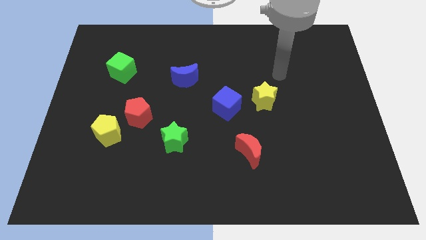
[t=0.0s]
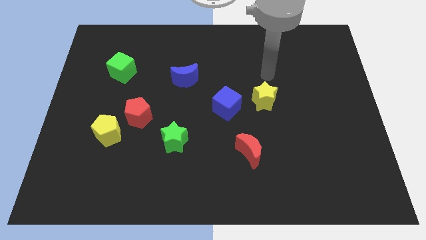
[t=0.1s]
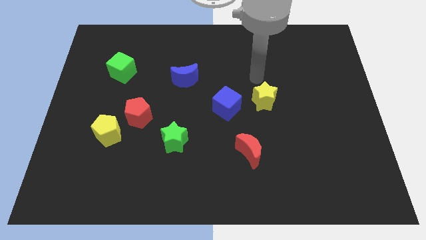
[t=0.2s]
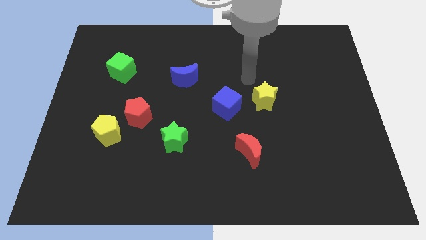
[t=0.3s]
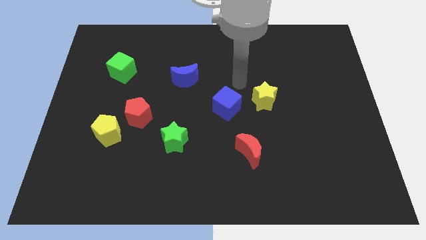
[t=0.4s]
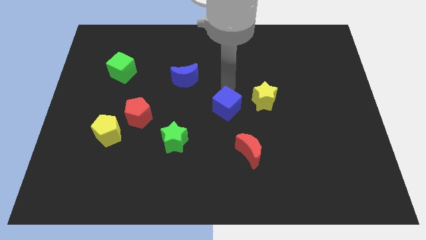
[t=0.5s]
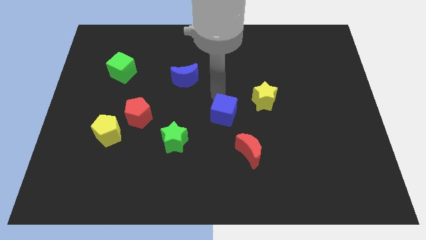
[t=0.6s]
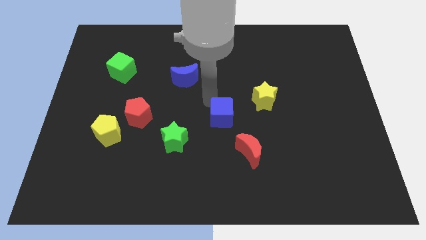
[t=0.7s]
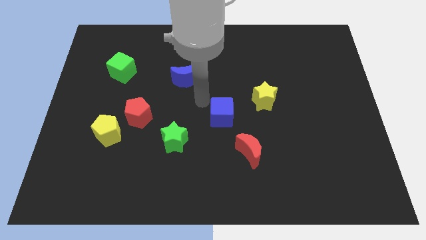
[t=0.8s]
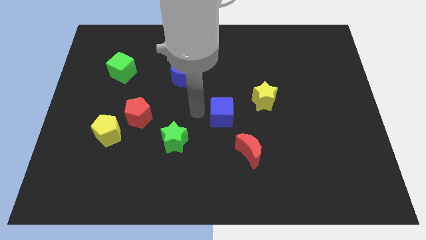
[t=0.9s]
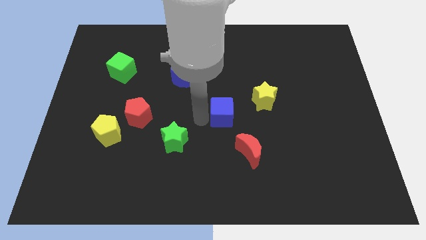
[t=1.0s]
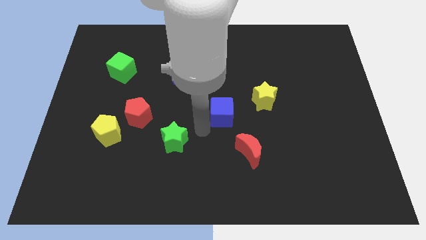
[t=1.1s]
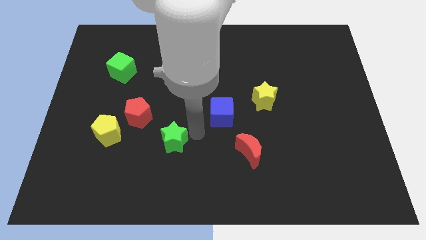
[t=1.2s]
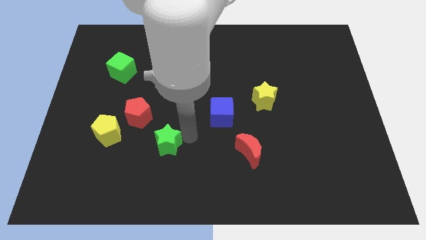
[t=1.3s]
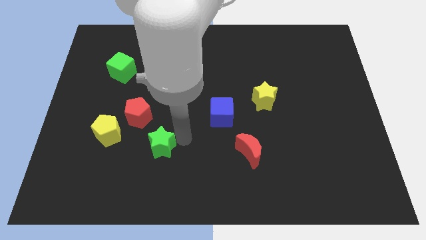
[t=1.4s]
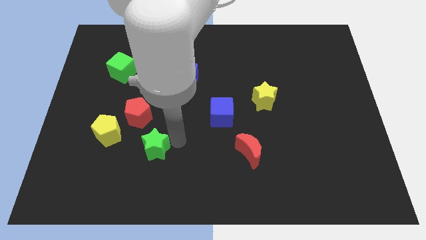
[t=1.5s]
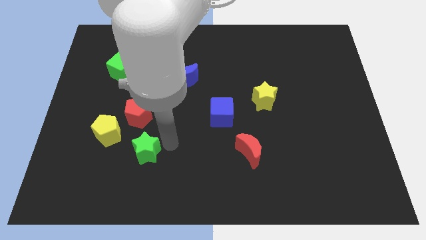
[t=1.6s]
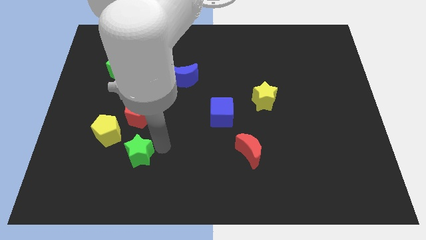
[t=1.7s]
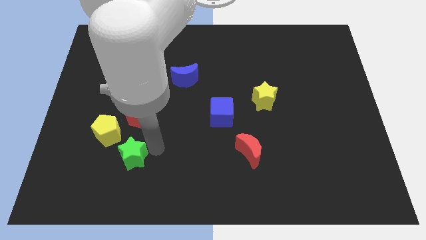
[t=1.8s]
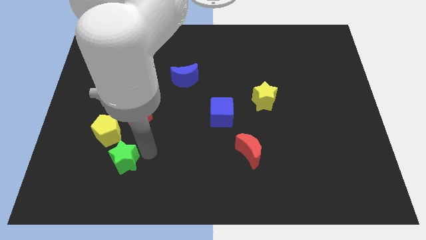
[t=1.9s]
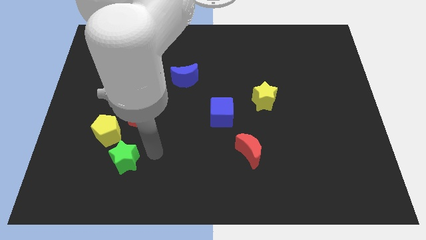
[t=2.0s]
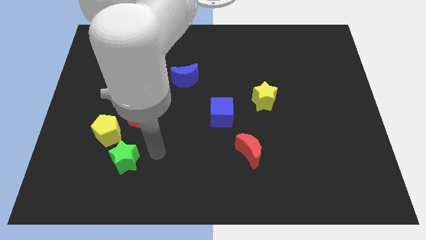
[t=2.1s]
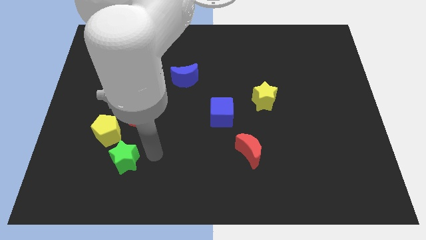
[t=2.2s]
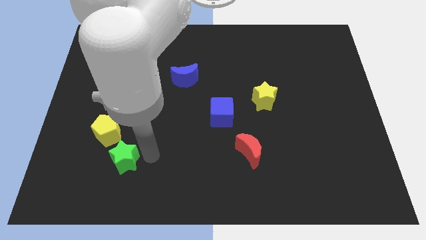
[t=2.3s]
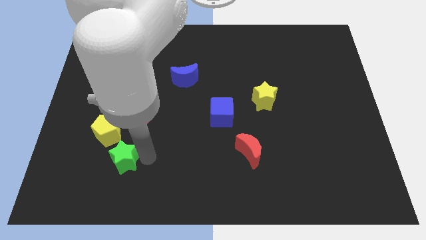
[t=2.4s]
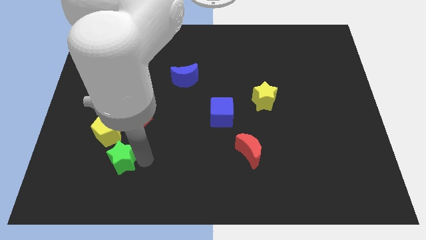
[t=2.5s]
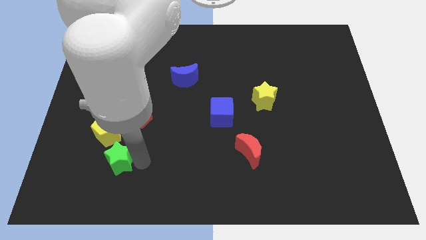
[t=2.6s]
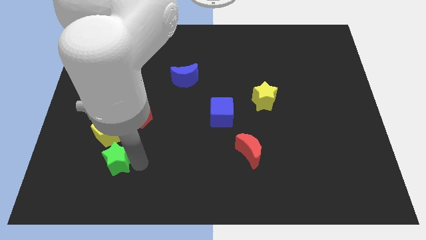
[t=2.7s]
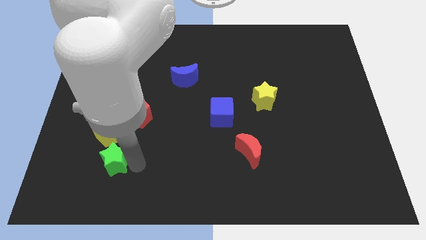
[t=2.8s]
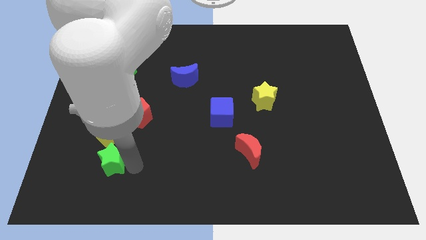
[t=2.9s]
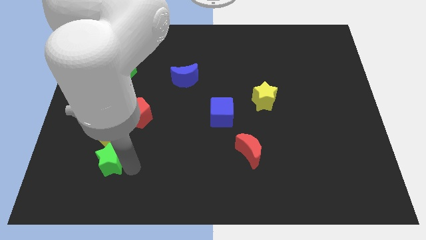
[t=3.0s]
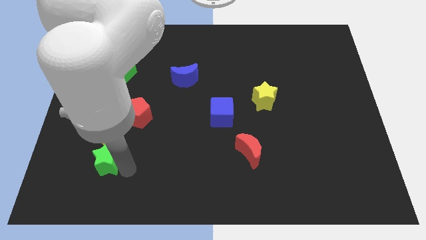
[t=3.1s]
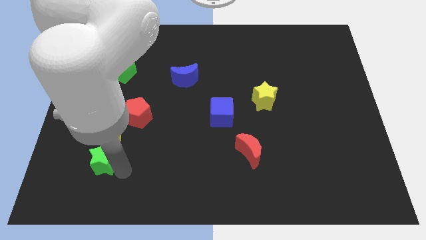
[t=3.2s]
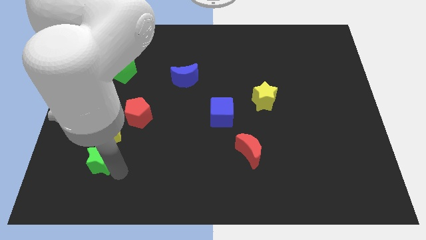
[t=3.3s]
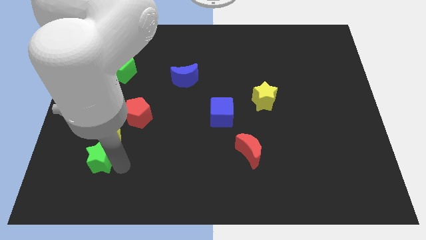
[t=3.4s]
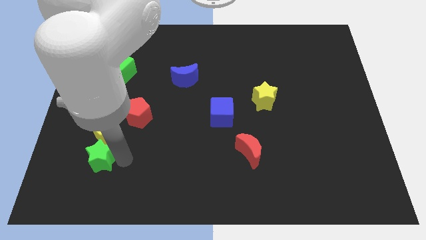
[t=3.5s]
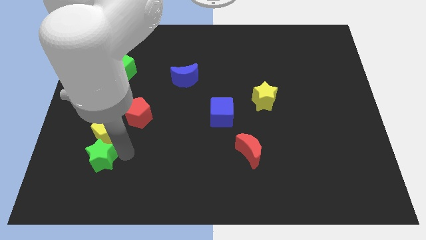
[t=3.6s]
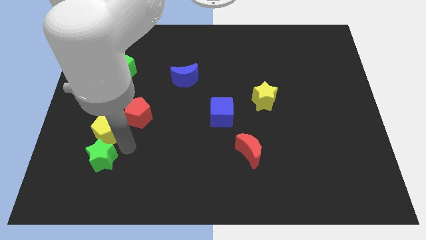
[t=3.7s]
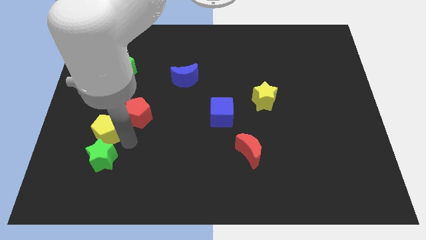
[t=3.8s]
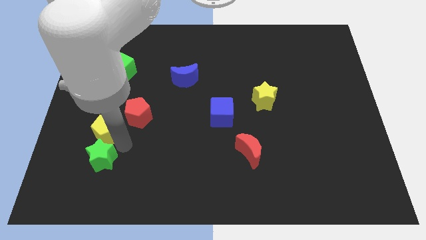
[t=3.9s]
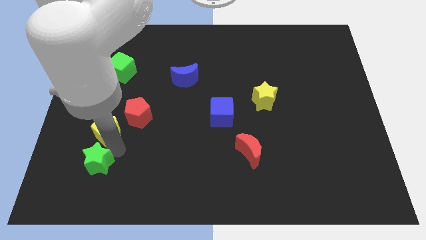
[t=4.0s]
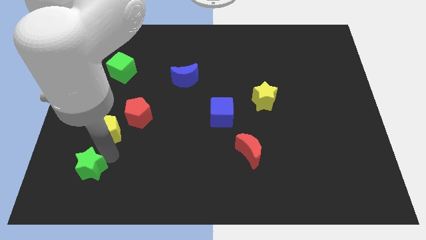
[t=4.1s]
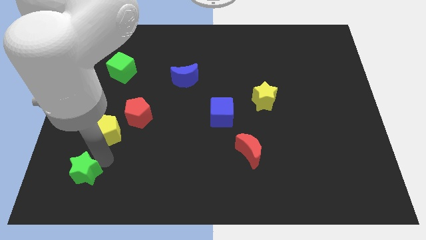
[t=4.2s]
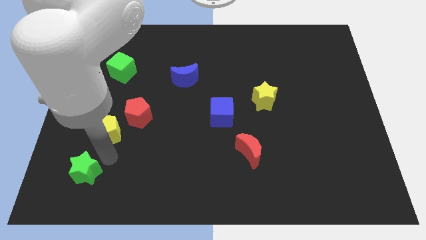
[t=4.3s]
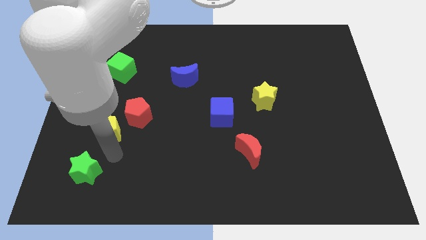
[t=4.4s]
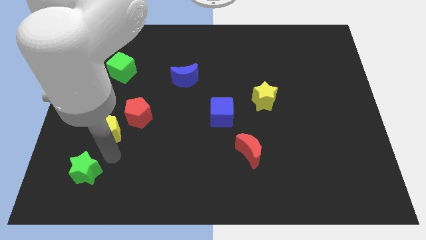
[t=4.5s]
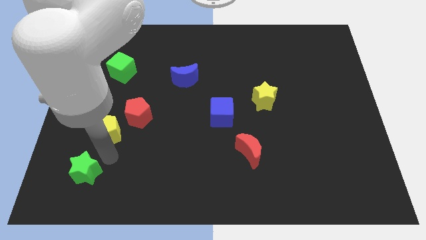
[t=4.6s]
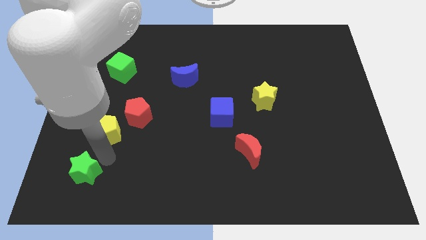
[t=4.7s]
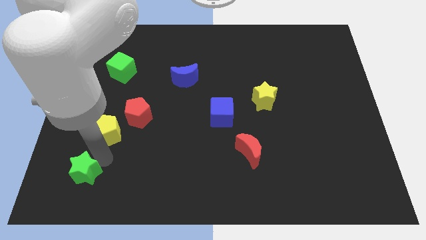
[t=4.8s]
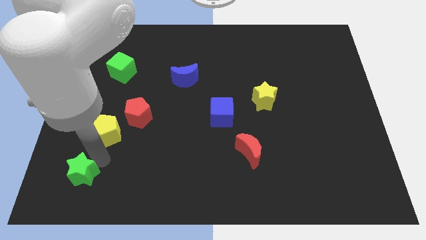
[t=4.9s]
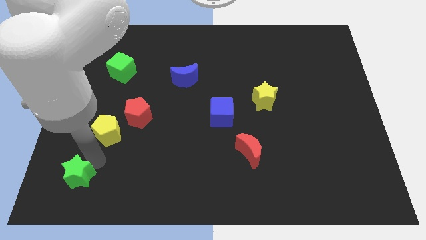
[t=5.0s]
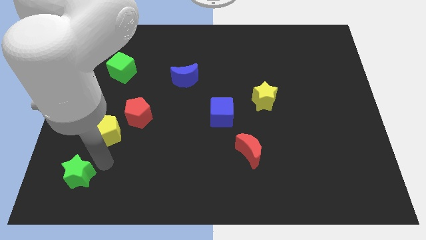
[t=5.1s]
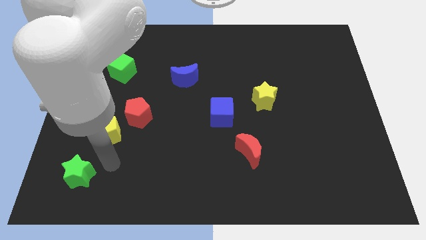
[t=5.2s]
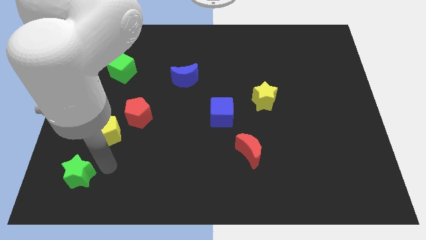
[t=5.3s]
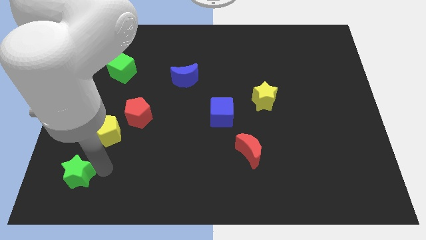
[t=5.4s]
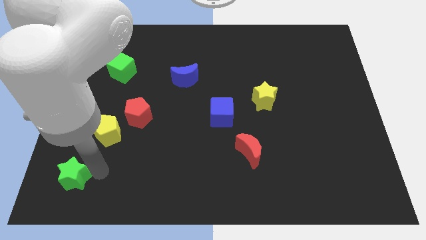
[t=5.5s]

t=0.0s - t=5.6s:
put the green star to the lower left corner
